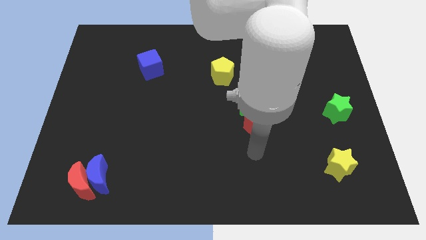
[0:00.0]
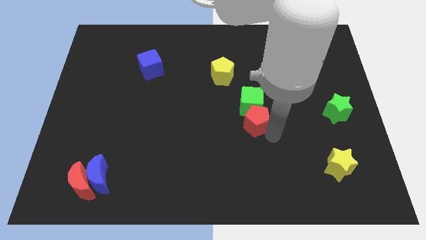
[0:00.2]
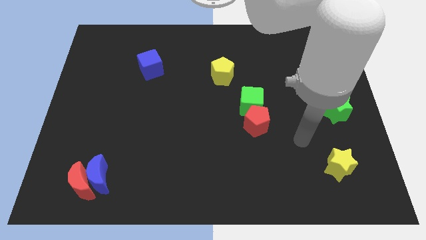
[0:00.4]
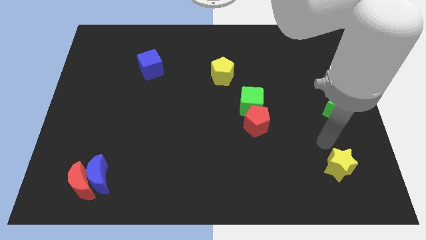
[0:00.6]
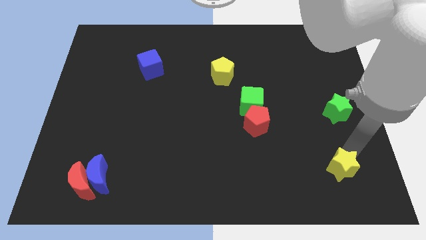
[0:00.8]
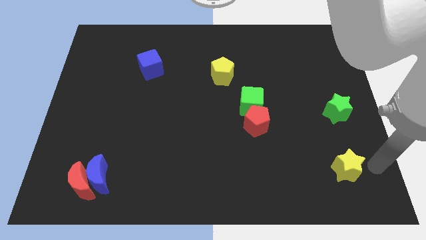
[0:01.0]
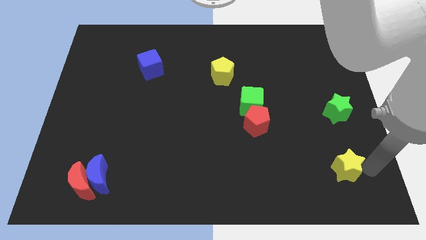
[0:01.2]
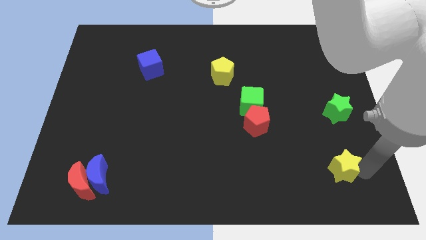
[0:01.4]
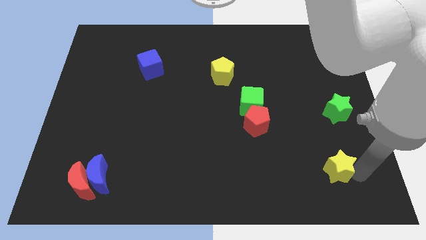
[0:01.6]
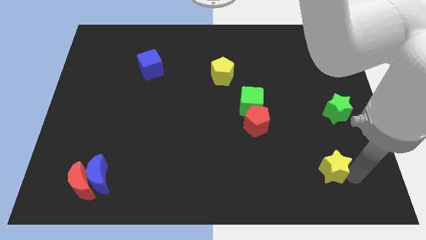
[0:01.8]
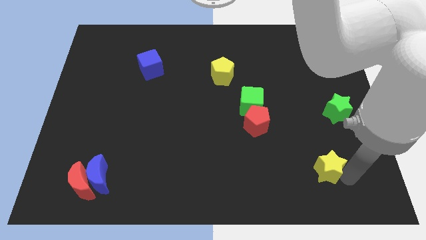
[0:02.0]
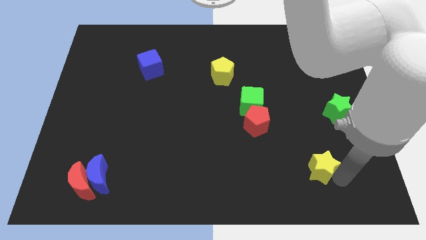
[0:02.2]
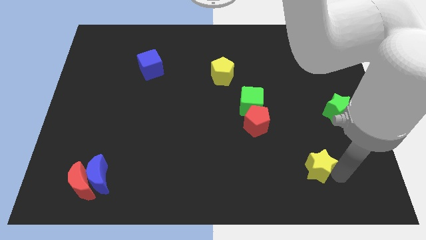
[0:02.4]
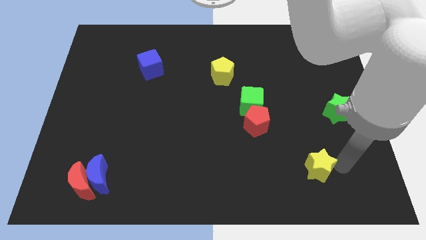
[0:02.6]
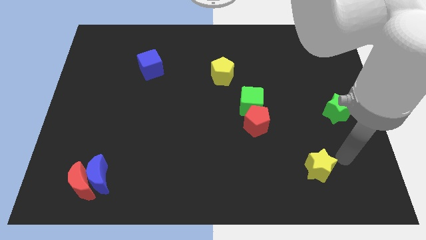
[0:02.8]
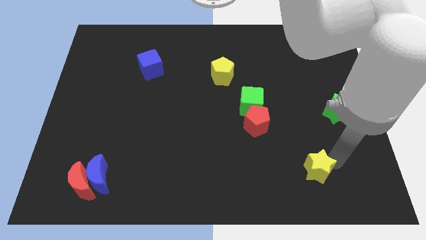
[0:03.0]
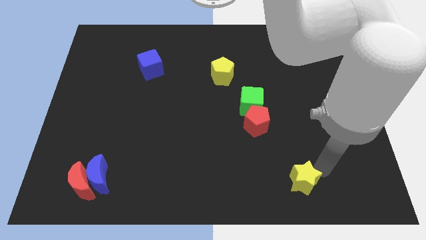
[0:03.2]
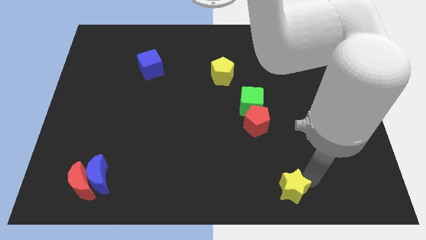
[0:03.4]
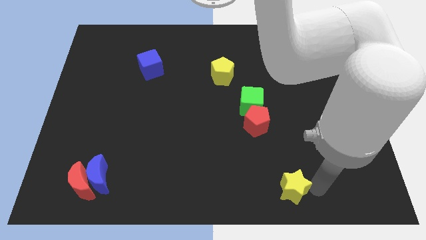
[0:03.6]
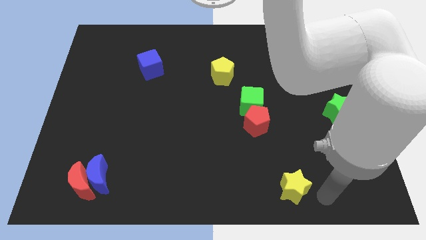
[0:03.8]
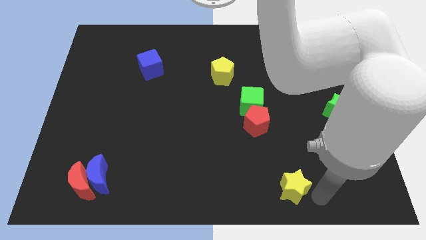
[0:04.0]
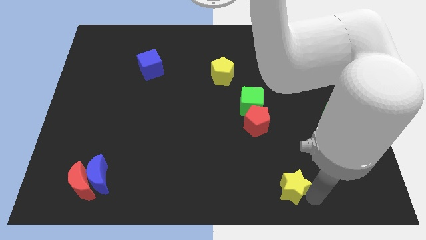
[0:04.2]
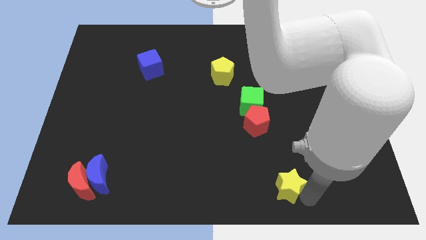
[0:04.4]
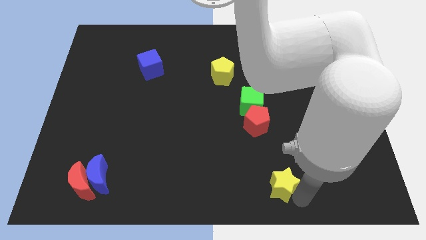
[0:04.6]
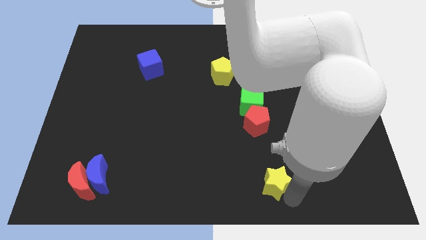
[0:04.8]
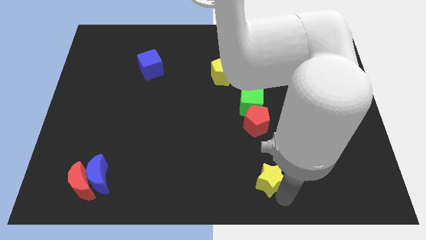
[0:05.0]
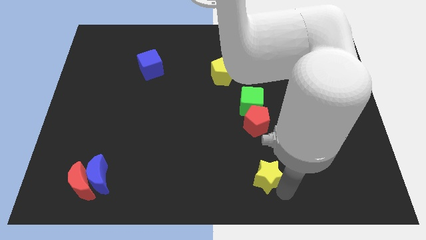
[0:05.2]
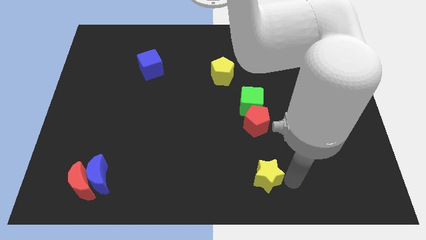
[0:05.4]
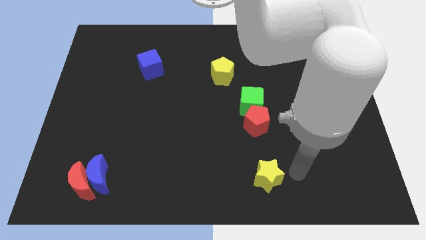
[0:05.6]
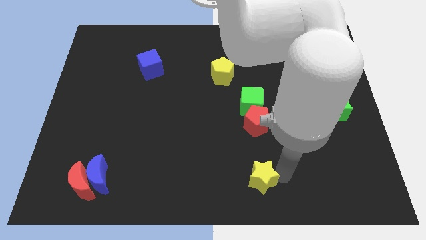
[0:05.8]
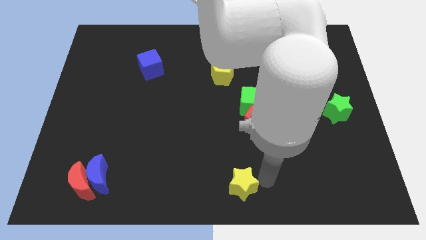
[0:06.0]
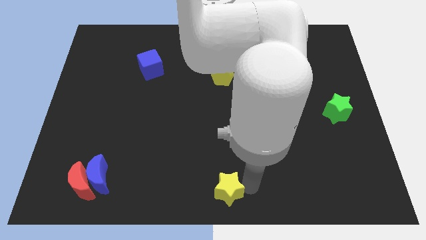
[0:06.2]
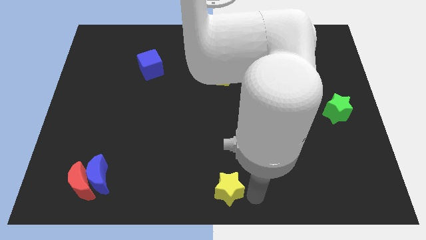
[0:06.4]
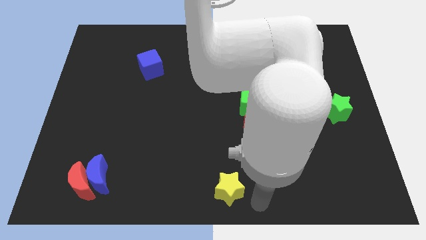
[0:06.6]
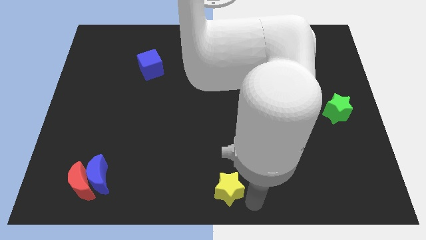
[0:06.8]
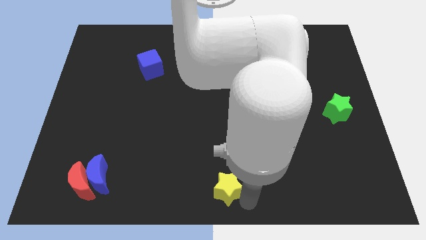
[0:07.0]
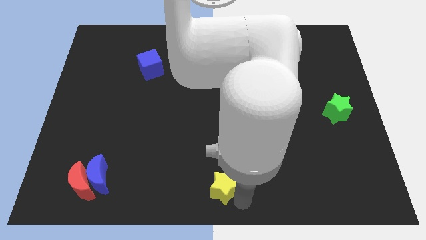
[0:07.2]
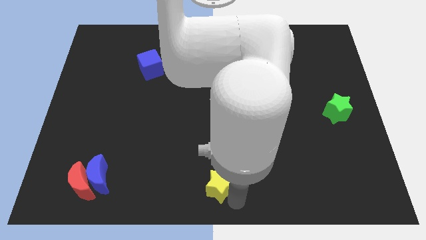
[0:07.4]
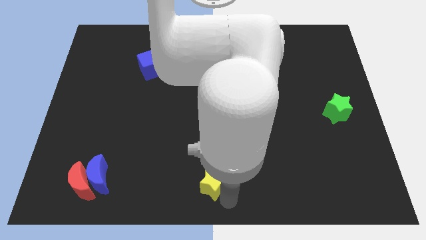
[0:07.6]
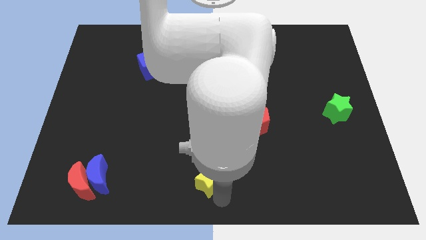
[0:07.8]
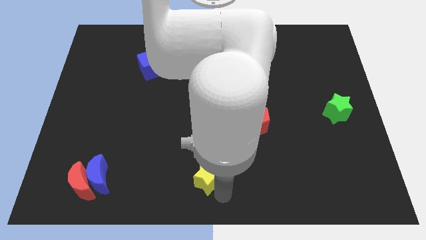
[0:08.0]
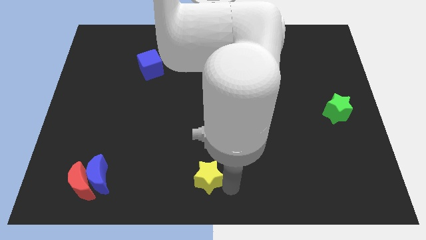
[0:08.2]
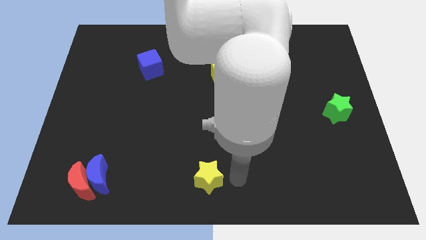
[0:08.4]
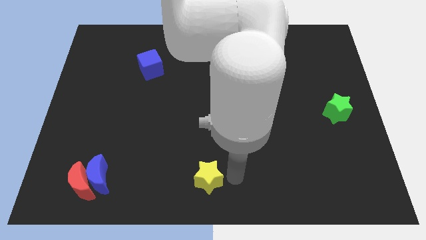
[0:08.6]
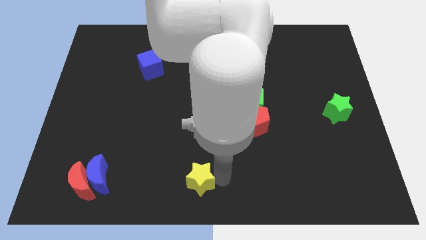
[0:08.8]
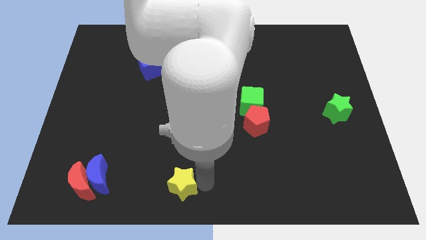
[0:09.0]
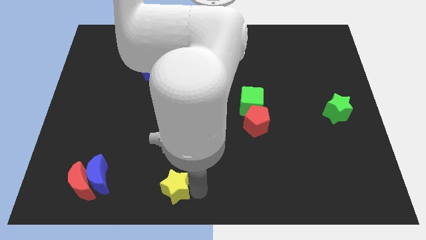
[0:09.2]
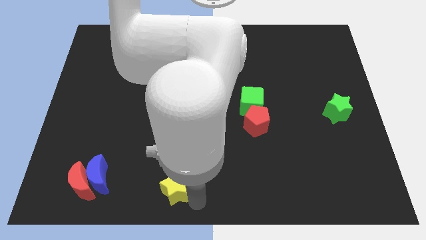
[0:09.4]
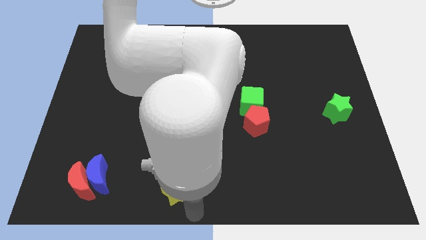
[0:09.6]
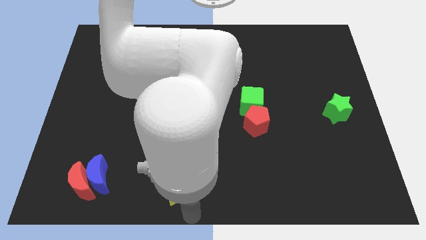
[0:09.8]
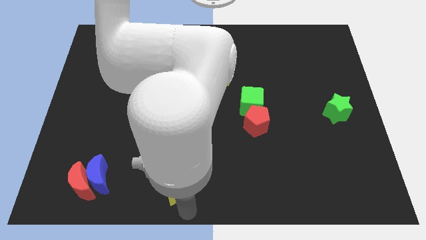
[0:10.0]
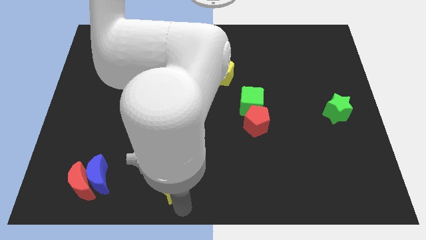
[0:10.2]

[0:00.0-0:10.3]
slide the yellow star just right of the blue moon

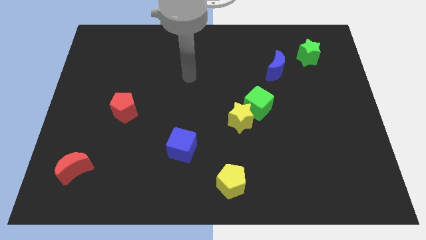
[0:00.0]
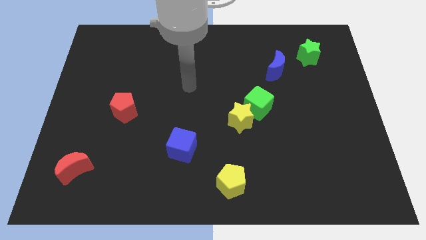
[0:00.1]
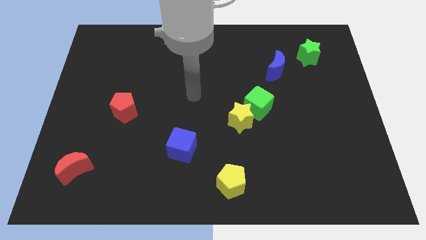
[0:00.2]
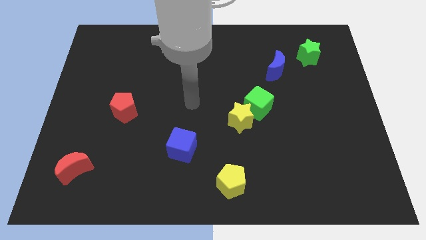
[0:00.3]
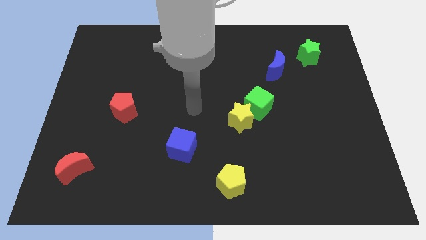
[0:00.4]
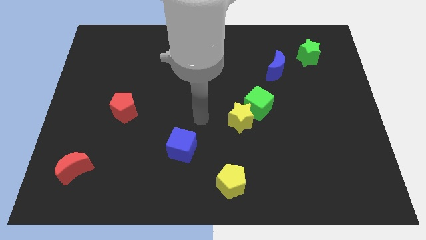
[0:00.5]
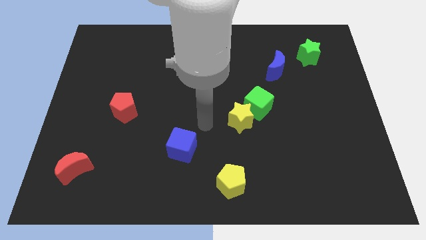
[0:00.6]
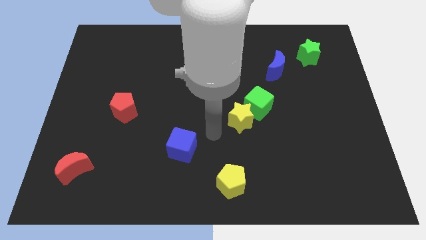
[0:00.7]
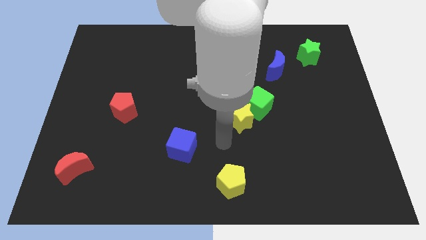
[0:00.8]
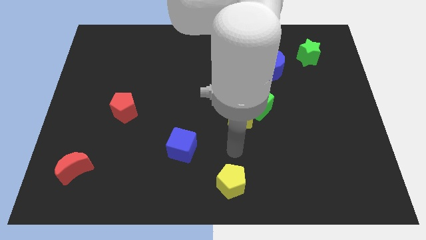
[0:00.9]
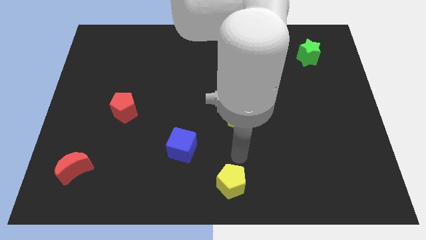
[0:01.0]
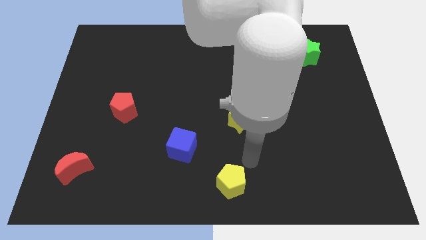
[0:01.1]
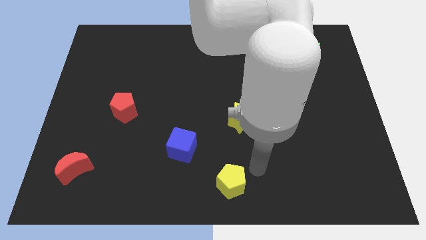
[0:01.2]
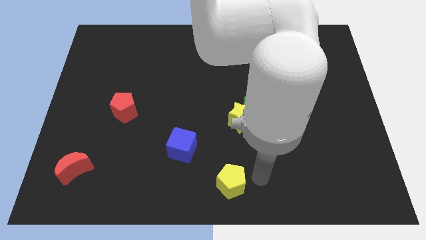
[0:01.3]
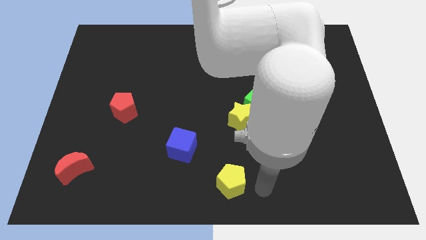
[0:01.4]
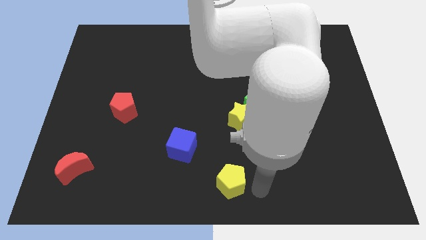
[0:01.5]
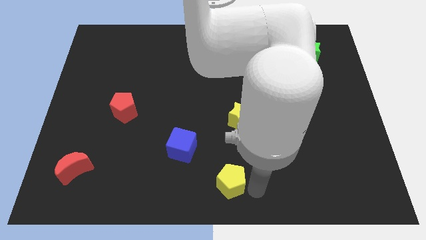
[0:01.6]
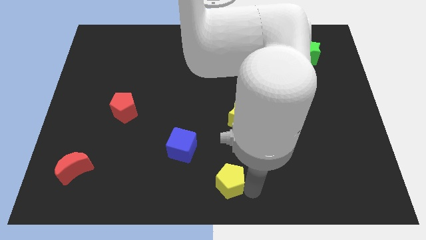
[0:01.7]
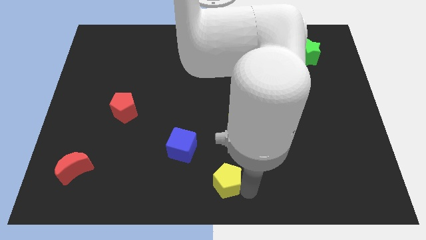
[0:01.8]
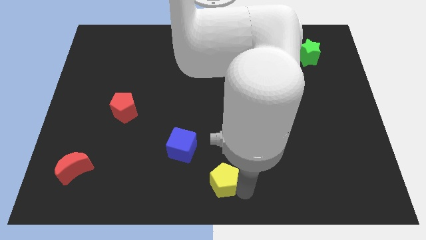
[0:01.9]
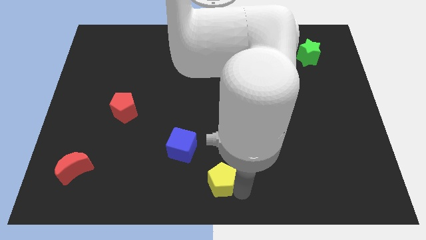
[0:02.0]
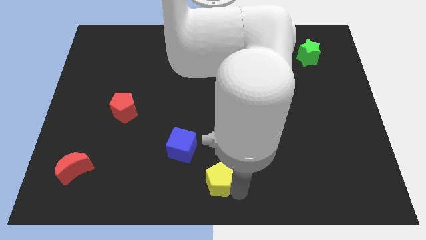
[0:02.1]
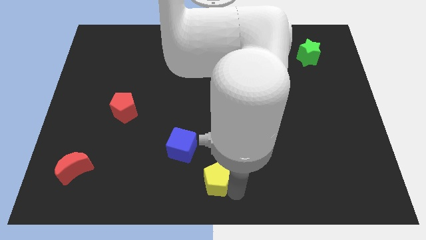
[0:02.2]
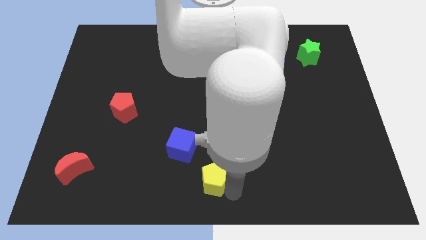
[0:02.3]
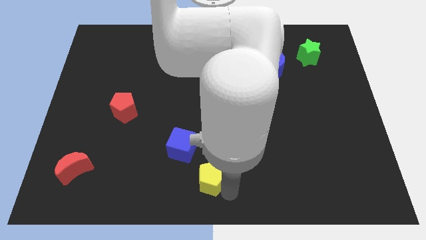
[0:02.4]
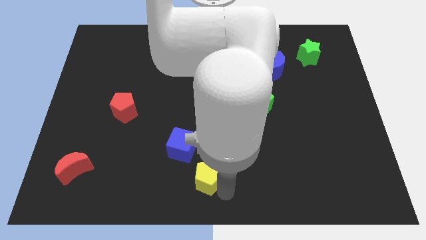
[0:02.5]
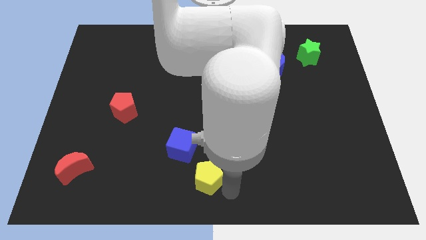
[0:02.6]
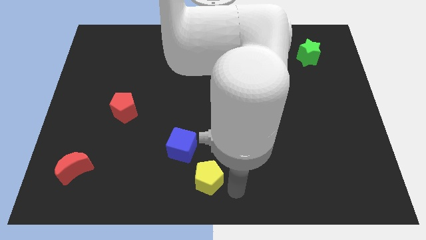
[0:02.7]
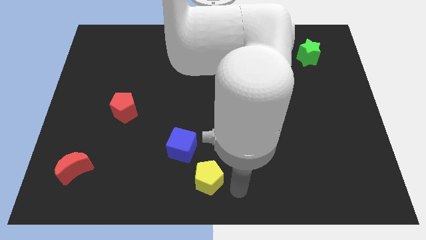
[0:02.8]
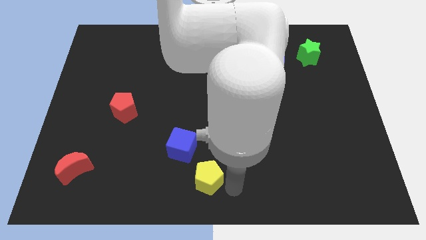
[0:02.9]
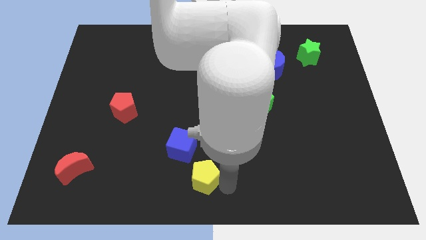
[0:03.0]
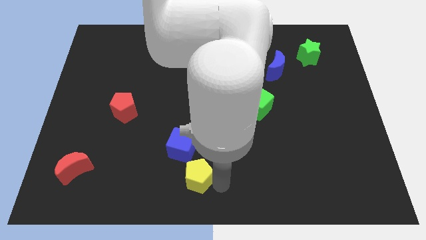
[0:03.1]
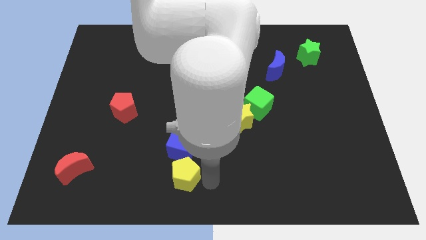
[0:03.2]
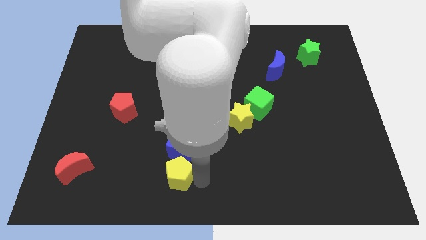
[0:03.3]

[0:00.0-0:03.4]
put the yellow pentagon to the bottom left side of the blue cube
